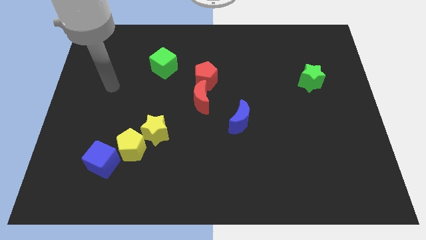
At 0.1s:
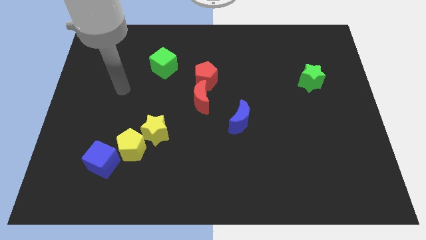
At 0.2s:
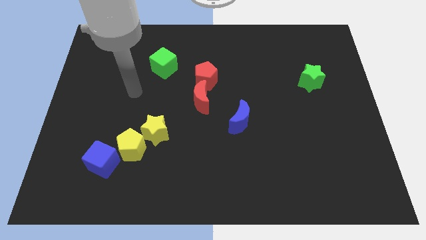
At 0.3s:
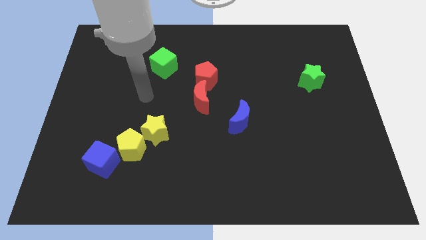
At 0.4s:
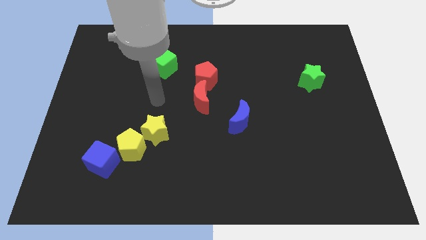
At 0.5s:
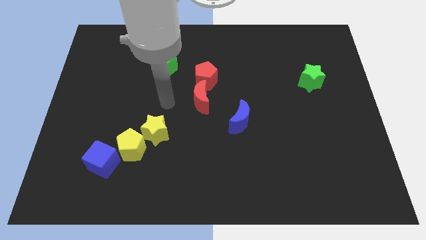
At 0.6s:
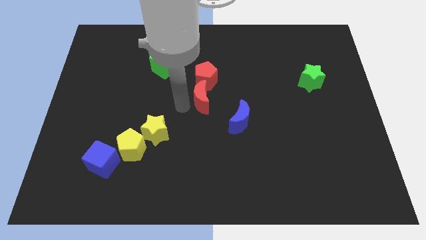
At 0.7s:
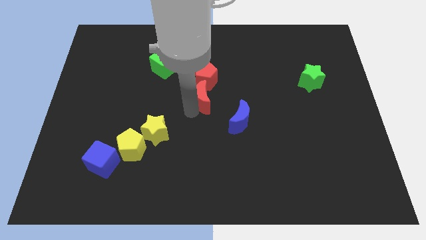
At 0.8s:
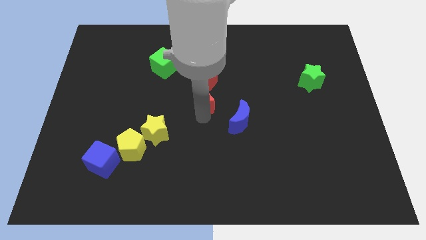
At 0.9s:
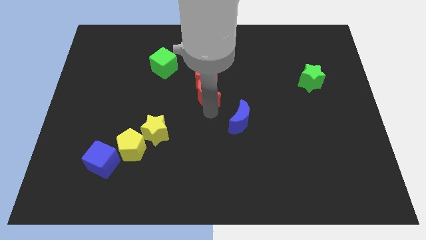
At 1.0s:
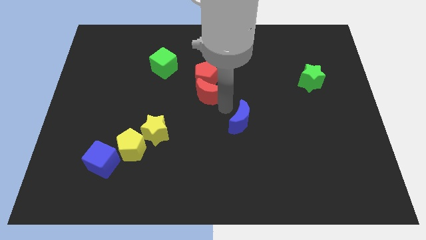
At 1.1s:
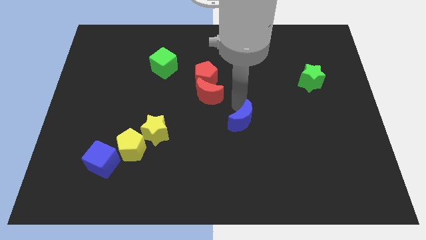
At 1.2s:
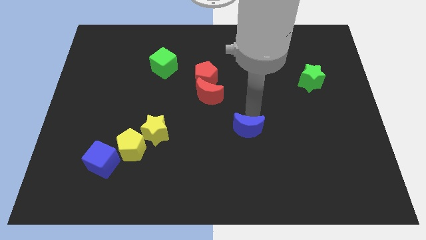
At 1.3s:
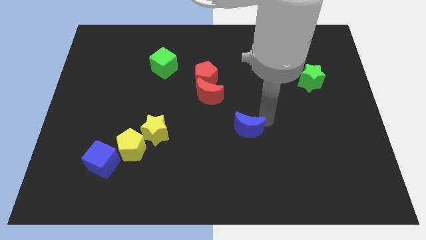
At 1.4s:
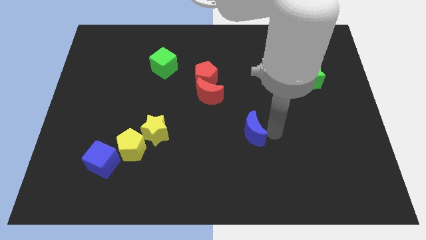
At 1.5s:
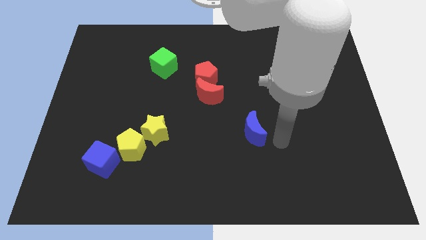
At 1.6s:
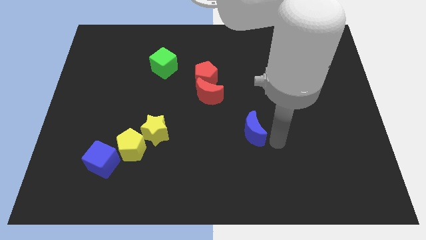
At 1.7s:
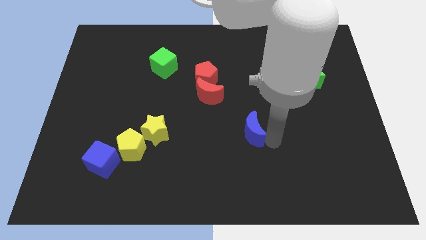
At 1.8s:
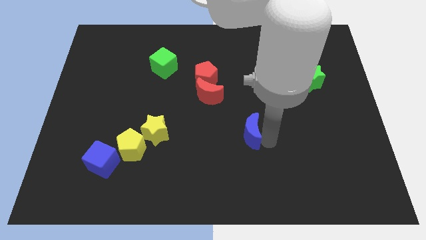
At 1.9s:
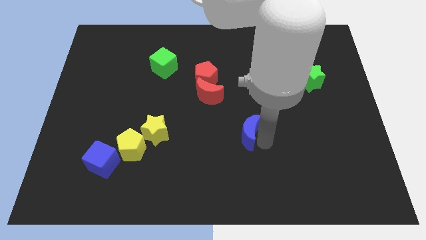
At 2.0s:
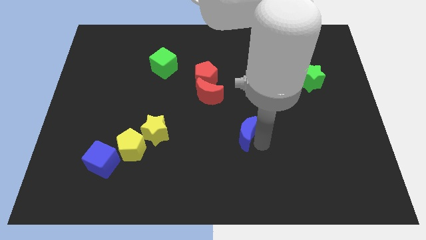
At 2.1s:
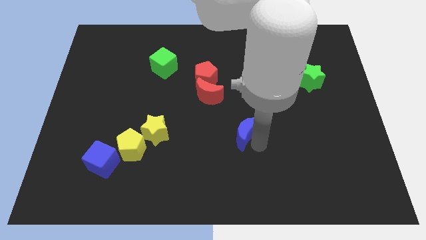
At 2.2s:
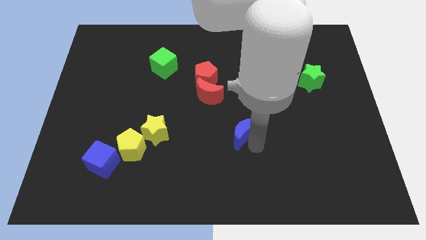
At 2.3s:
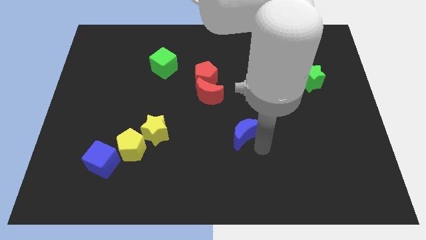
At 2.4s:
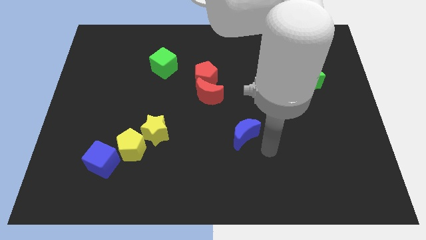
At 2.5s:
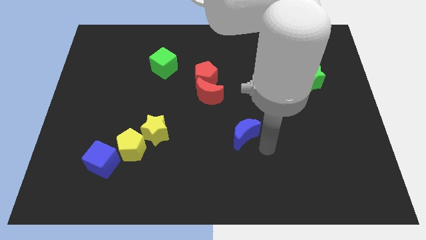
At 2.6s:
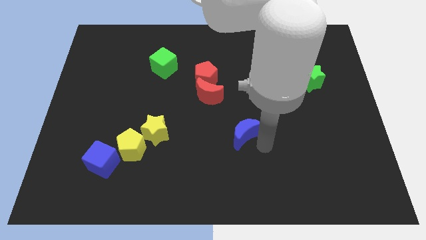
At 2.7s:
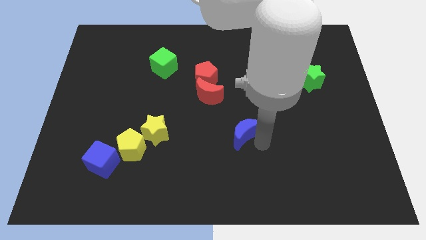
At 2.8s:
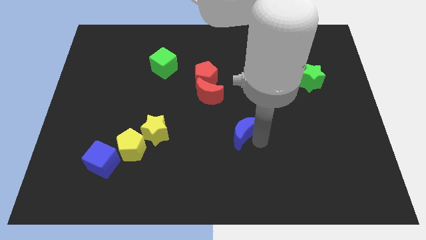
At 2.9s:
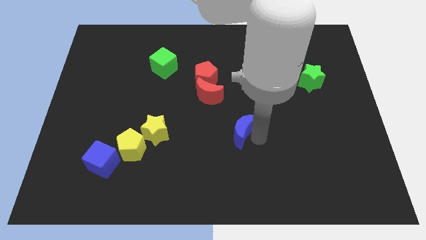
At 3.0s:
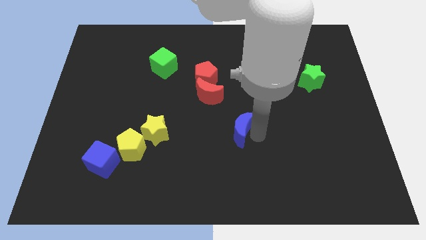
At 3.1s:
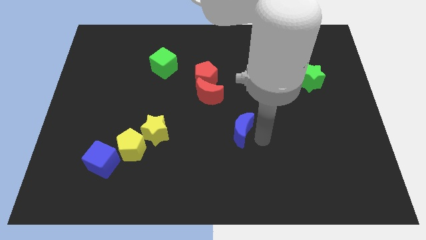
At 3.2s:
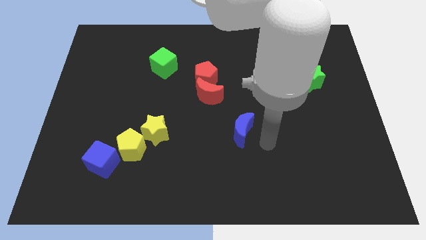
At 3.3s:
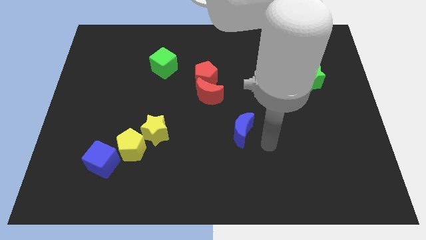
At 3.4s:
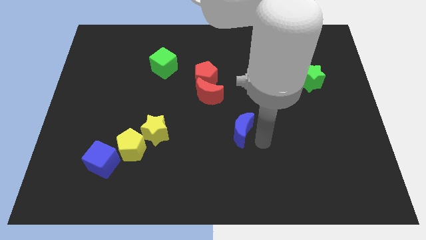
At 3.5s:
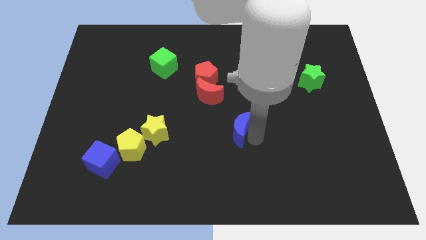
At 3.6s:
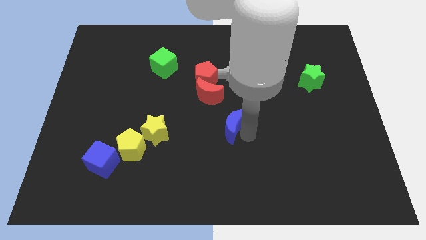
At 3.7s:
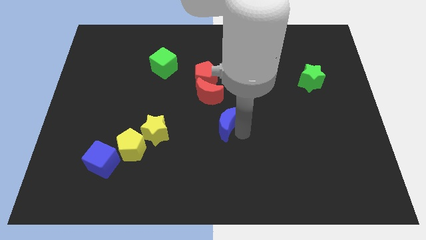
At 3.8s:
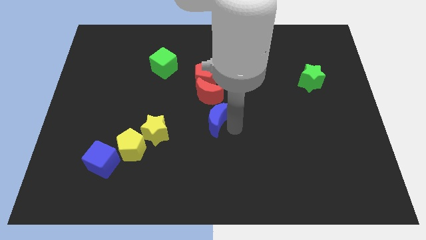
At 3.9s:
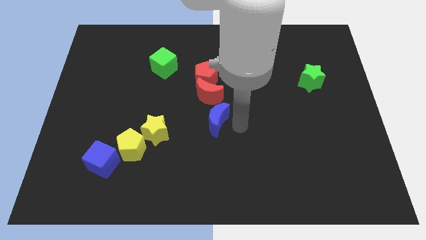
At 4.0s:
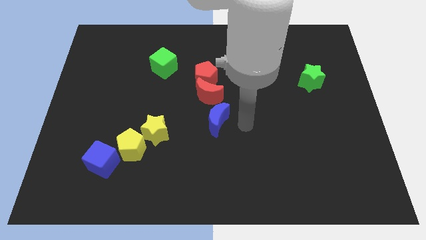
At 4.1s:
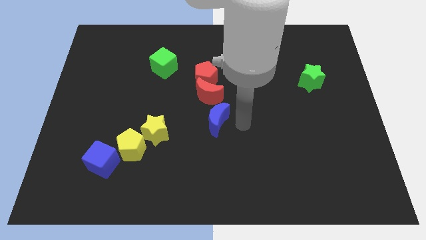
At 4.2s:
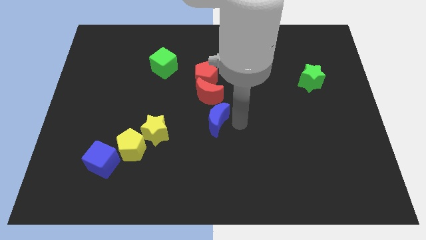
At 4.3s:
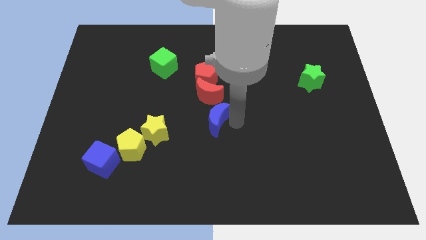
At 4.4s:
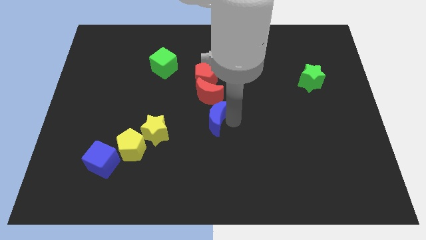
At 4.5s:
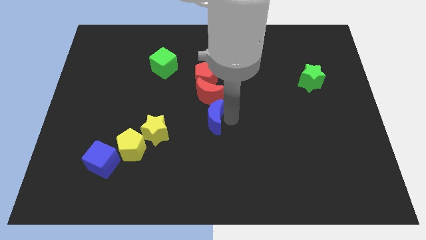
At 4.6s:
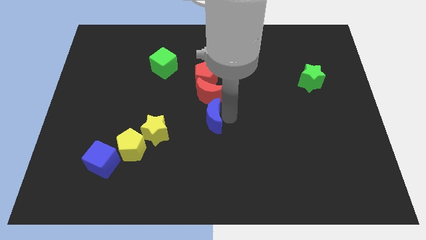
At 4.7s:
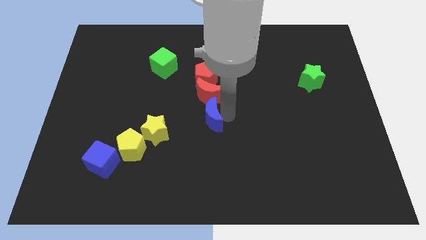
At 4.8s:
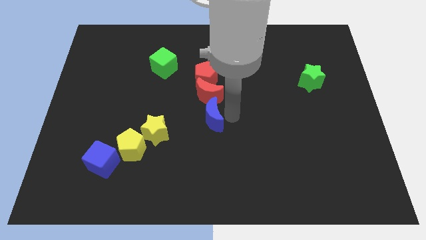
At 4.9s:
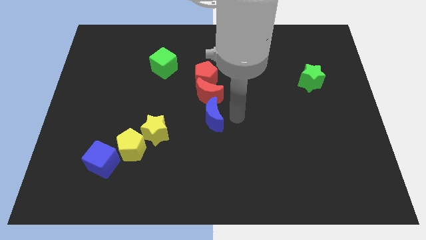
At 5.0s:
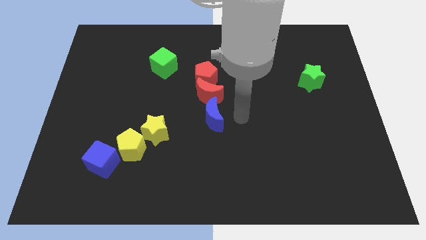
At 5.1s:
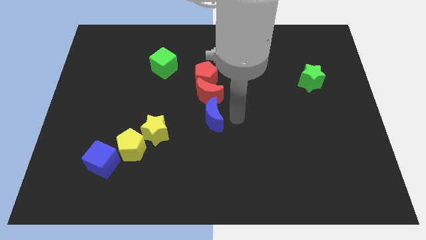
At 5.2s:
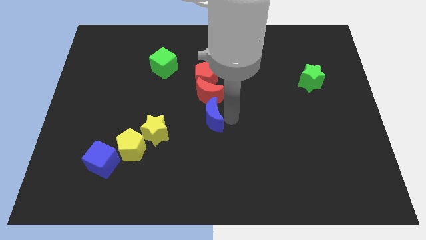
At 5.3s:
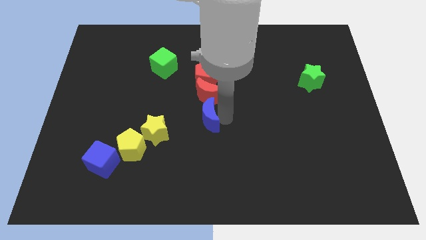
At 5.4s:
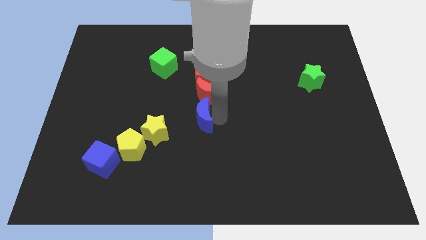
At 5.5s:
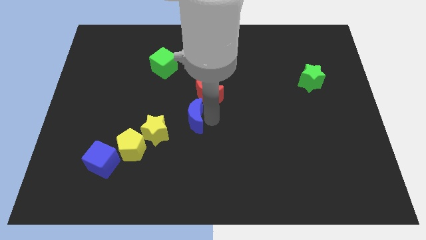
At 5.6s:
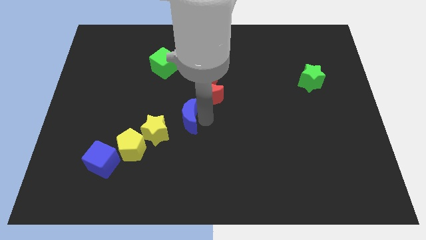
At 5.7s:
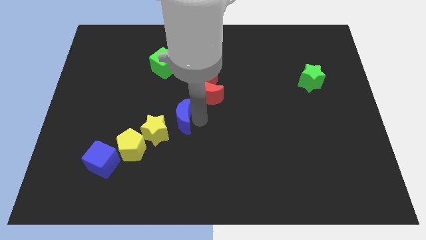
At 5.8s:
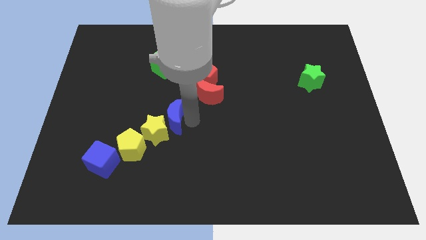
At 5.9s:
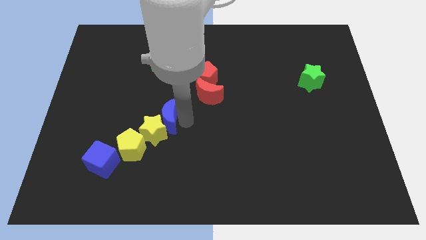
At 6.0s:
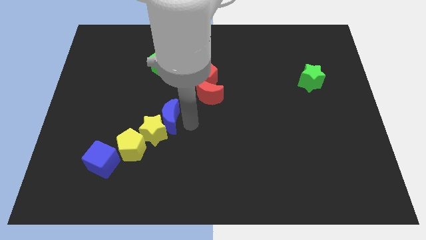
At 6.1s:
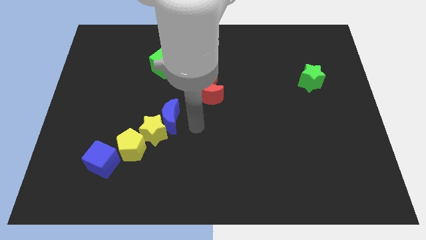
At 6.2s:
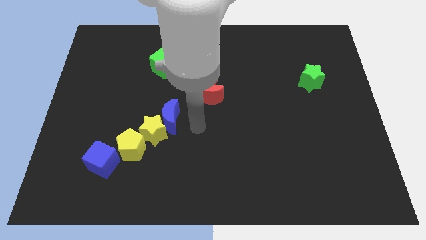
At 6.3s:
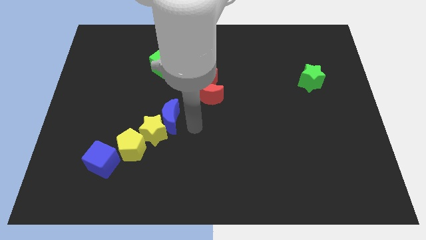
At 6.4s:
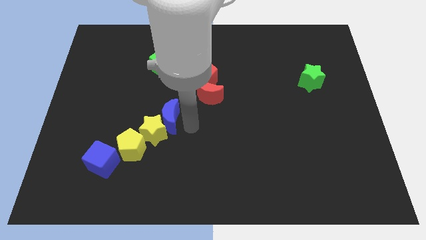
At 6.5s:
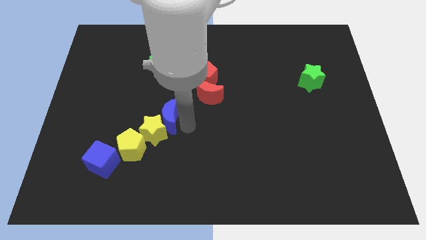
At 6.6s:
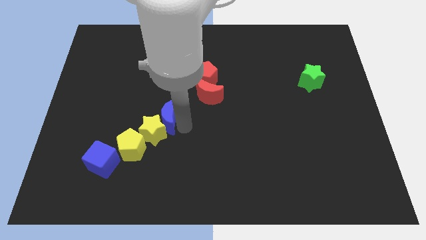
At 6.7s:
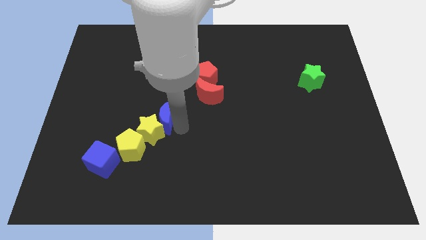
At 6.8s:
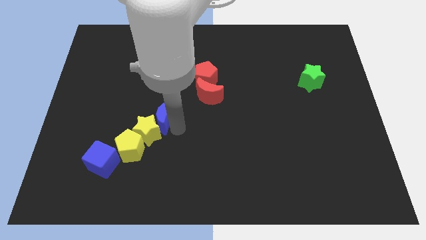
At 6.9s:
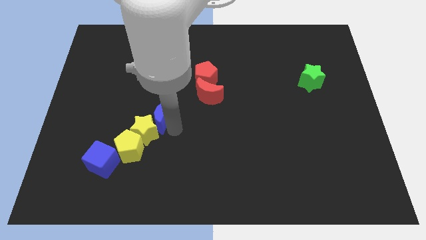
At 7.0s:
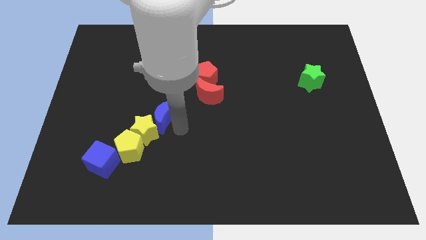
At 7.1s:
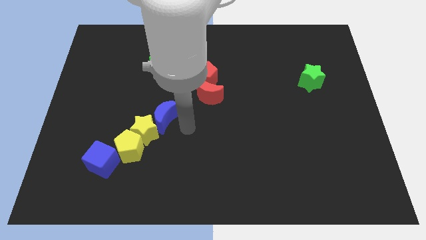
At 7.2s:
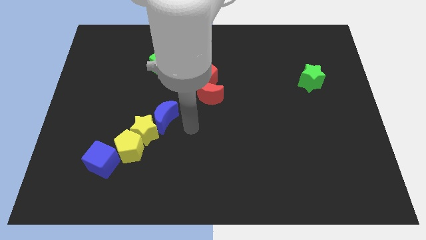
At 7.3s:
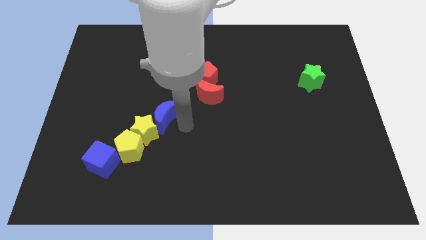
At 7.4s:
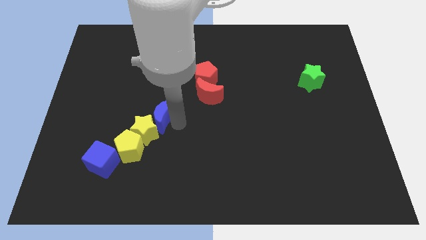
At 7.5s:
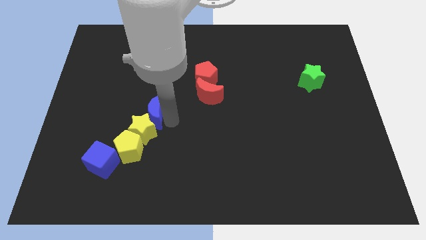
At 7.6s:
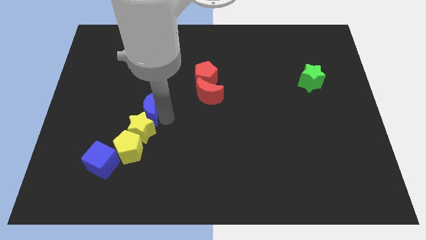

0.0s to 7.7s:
slide the blue moon to the left

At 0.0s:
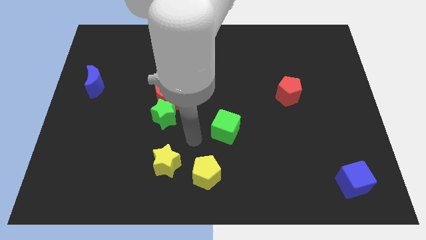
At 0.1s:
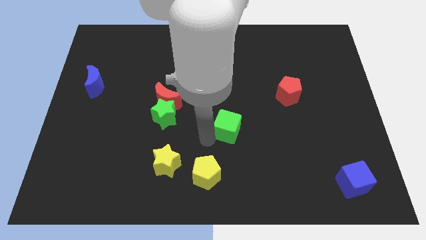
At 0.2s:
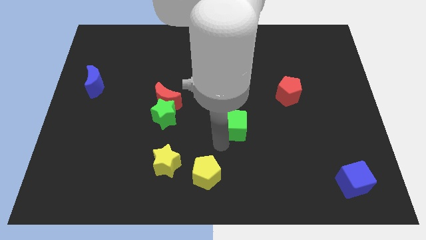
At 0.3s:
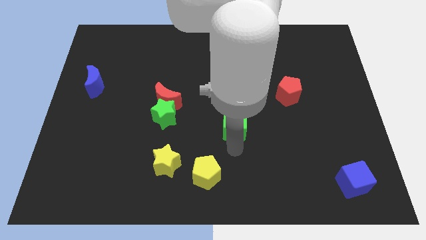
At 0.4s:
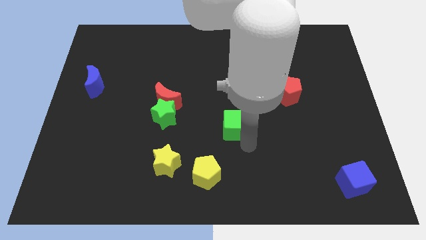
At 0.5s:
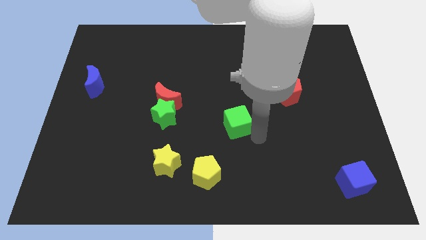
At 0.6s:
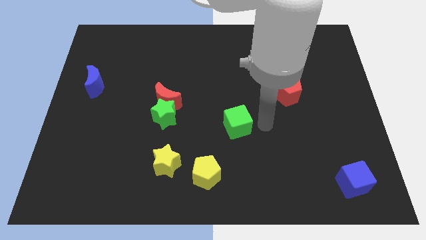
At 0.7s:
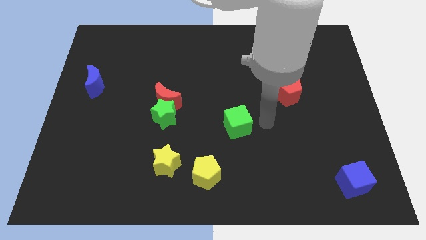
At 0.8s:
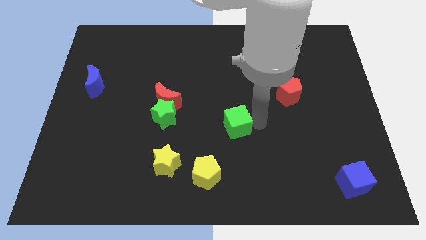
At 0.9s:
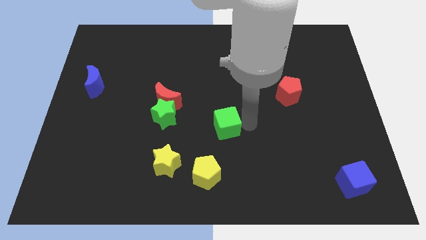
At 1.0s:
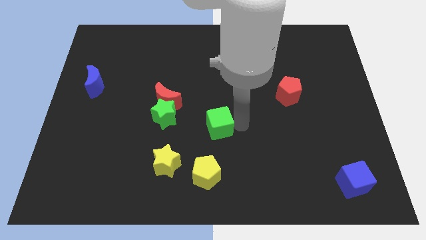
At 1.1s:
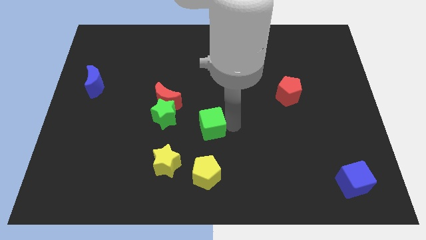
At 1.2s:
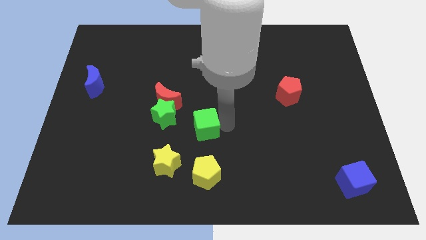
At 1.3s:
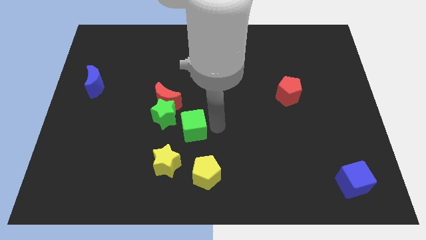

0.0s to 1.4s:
slightly push the green cube left
